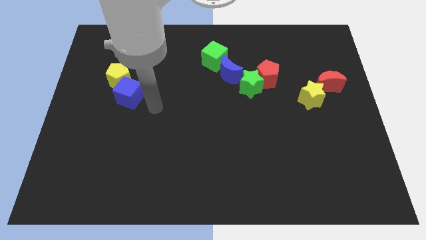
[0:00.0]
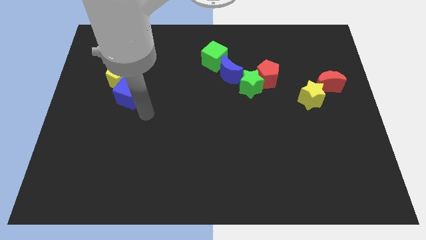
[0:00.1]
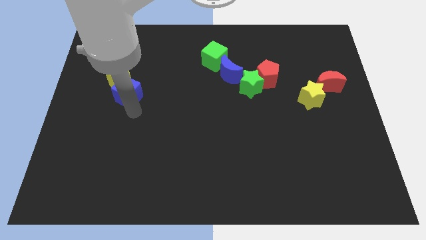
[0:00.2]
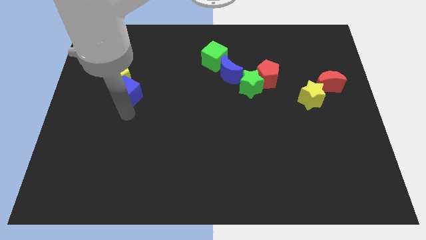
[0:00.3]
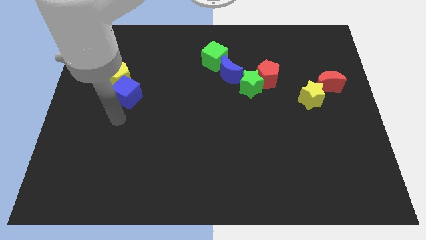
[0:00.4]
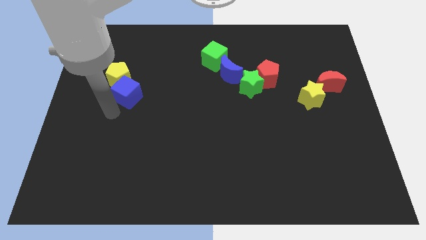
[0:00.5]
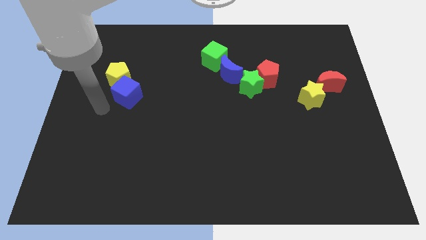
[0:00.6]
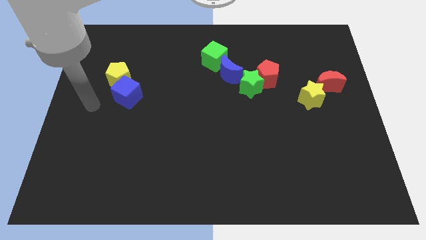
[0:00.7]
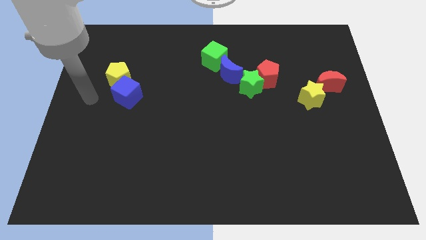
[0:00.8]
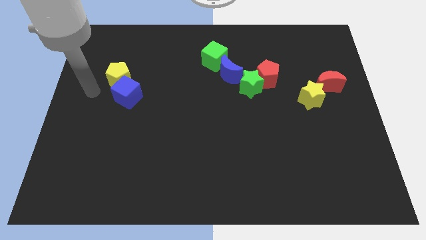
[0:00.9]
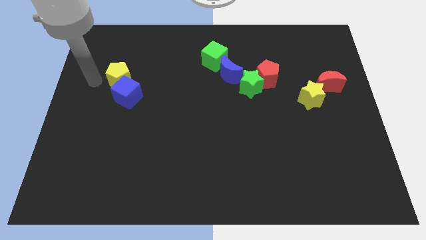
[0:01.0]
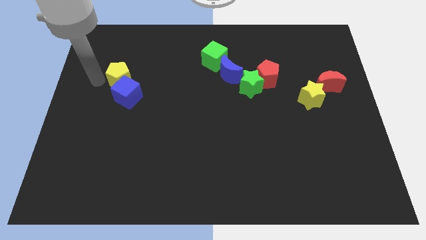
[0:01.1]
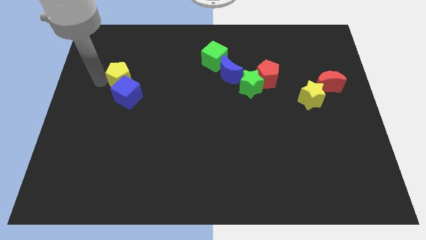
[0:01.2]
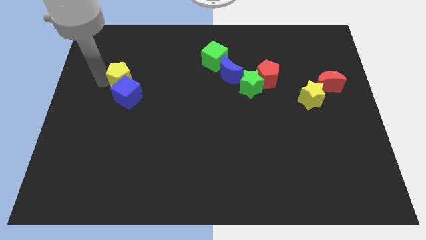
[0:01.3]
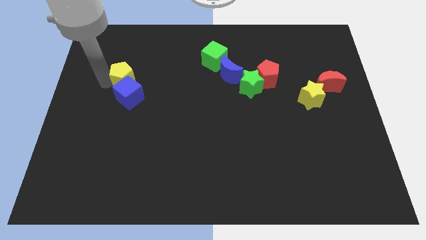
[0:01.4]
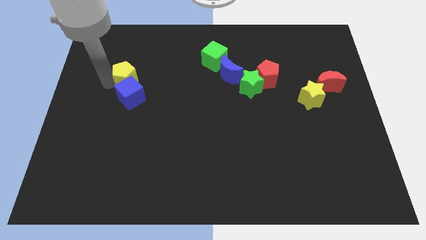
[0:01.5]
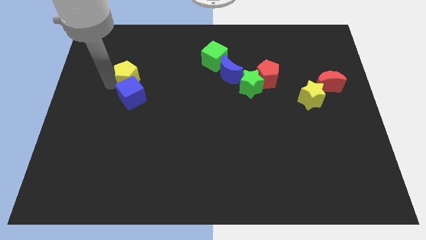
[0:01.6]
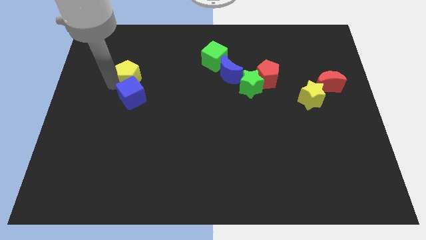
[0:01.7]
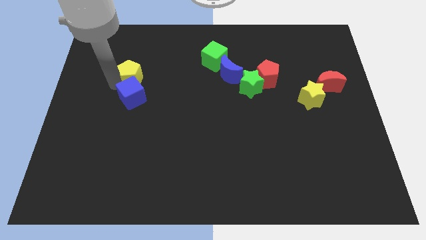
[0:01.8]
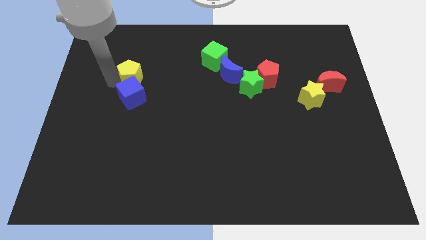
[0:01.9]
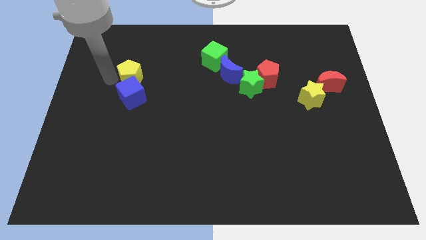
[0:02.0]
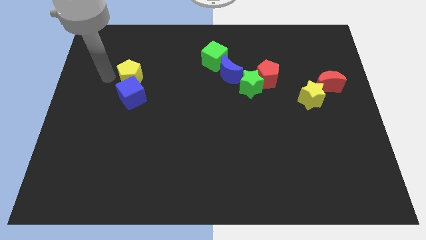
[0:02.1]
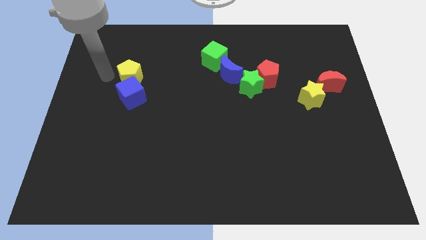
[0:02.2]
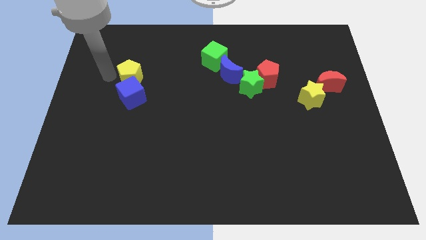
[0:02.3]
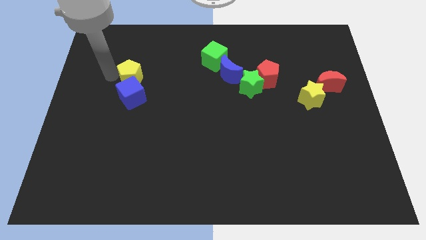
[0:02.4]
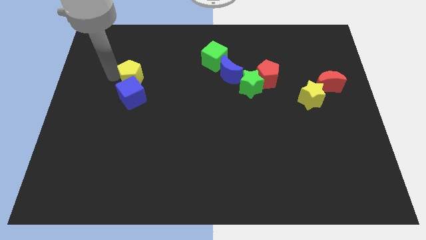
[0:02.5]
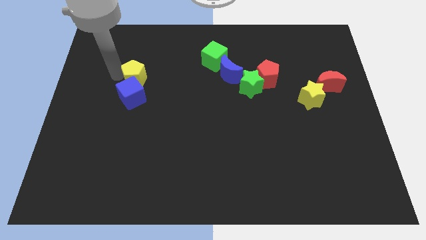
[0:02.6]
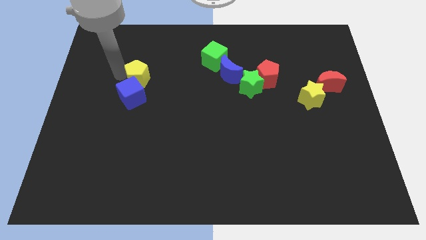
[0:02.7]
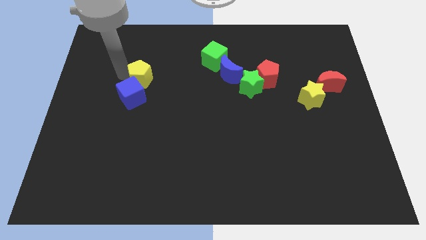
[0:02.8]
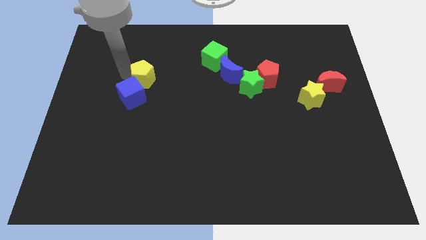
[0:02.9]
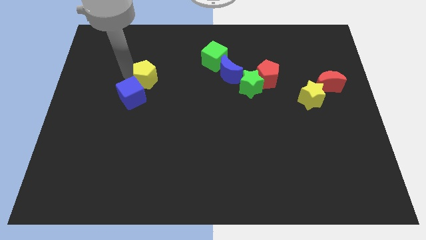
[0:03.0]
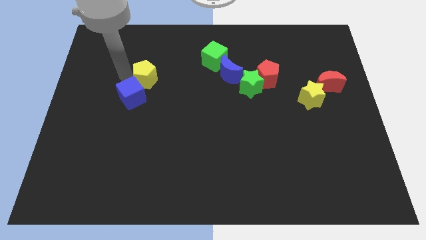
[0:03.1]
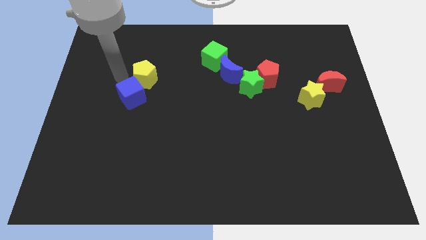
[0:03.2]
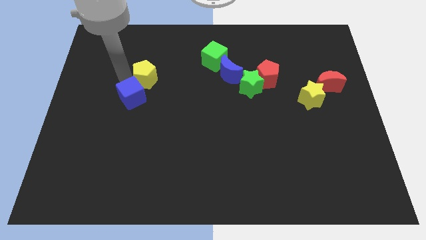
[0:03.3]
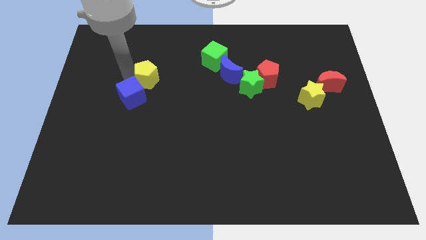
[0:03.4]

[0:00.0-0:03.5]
move the yellow pentagon slightly to the right

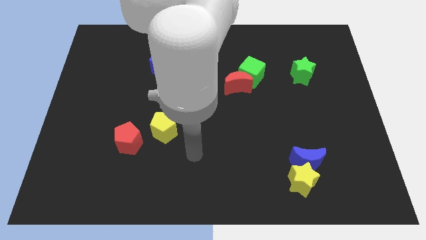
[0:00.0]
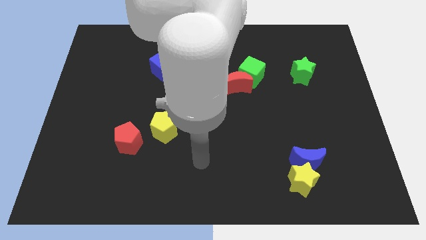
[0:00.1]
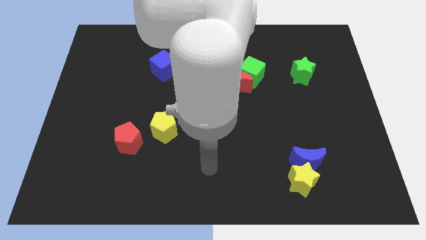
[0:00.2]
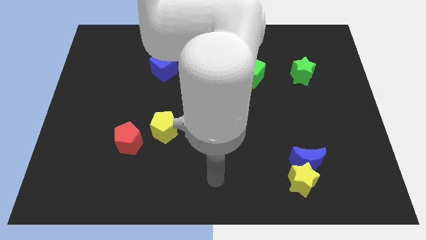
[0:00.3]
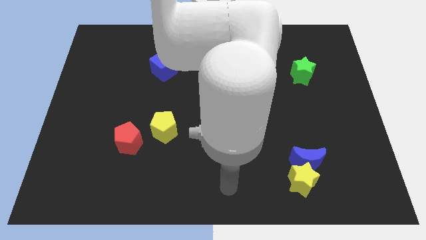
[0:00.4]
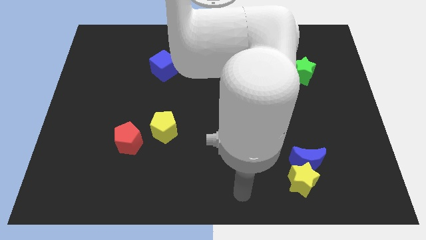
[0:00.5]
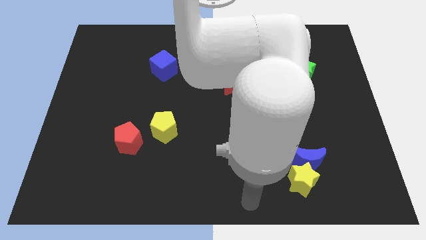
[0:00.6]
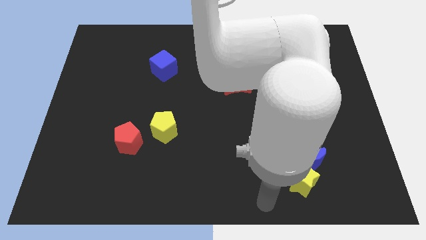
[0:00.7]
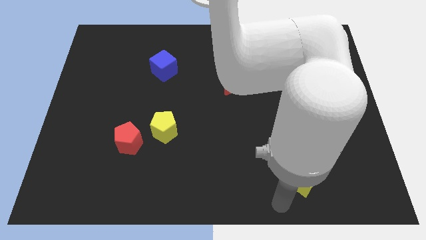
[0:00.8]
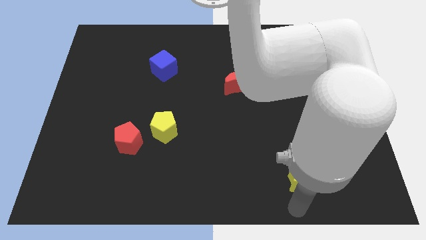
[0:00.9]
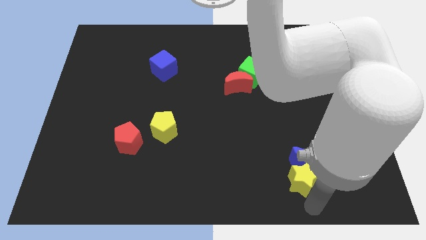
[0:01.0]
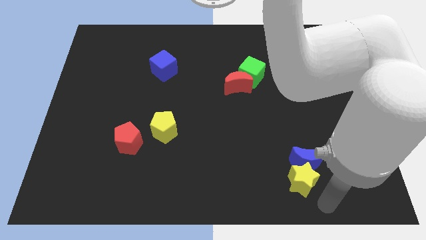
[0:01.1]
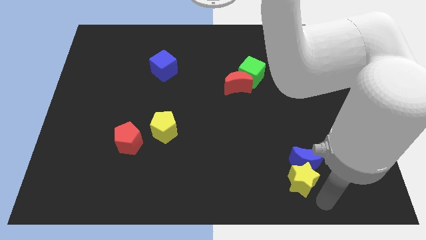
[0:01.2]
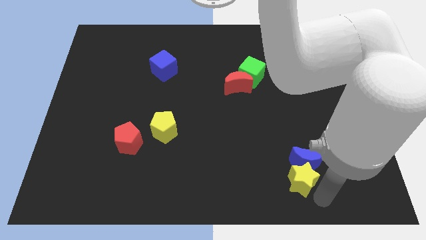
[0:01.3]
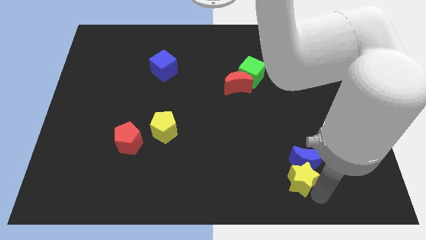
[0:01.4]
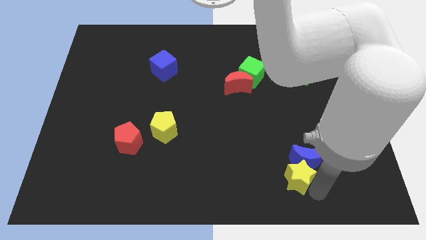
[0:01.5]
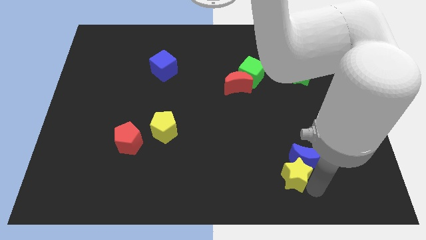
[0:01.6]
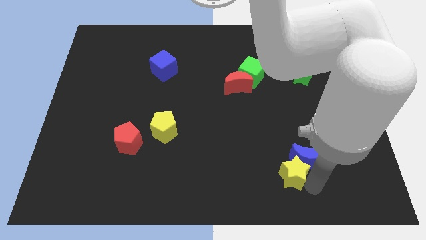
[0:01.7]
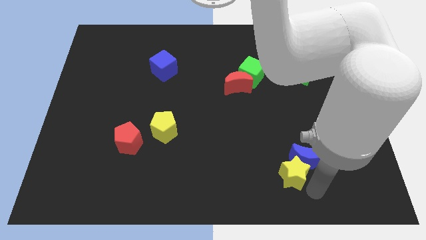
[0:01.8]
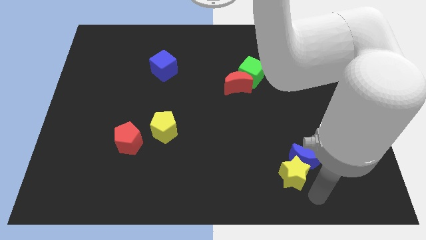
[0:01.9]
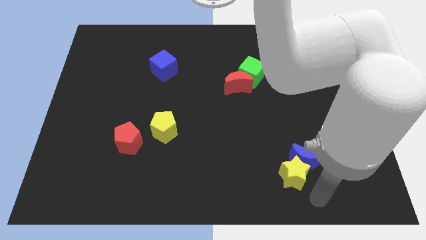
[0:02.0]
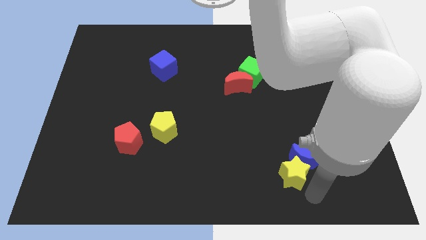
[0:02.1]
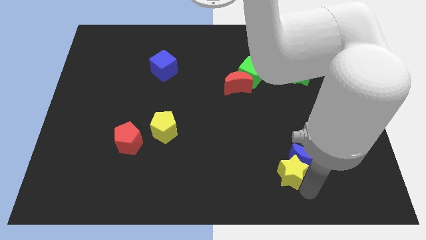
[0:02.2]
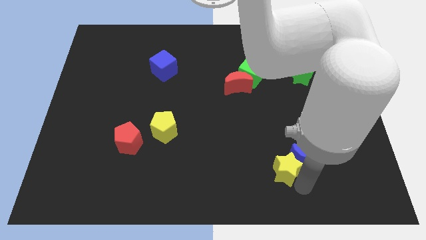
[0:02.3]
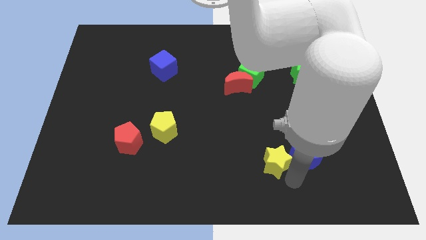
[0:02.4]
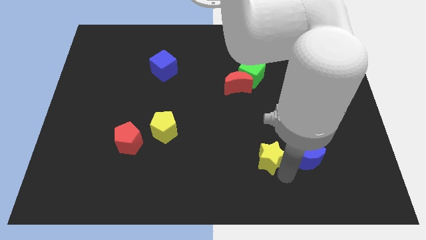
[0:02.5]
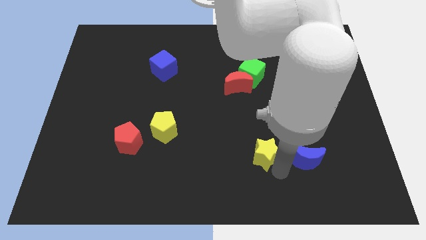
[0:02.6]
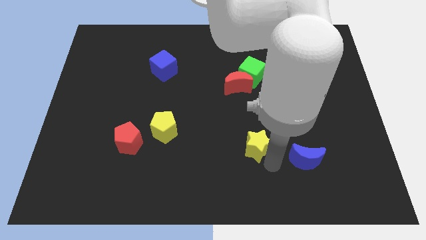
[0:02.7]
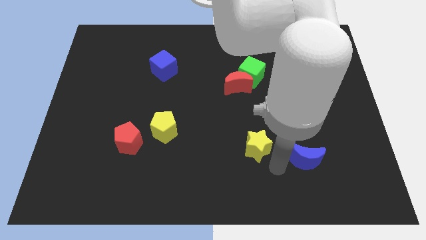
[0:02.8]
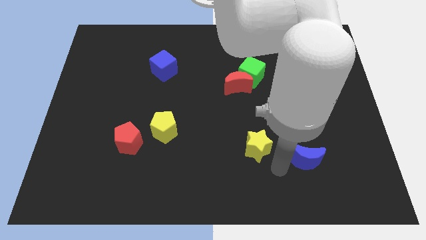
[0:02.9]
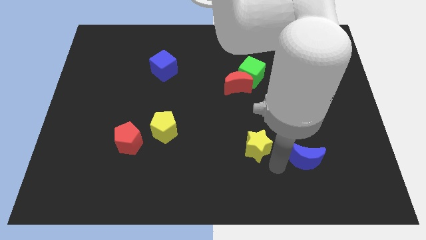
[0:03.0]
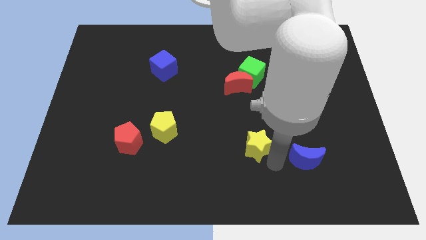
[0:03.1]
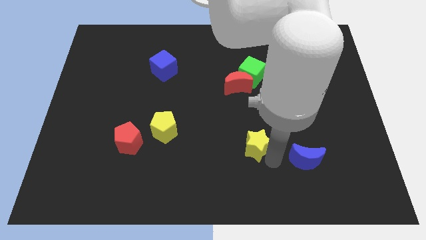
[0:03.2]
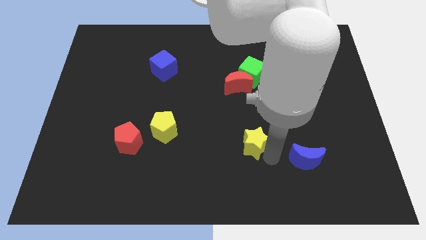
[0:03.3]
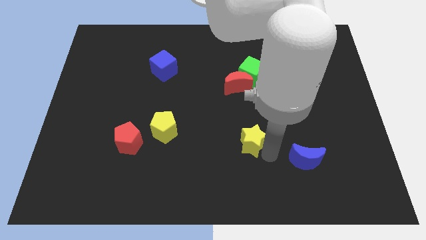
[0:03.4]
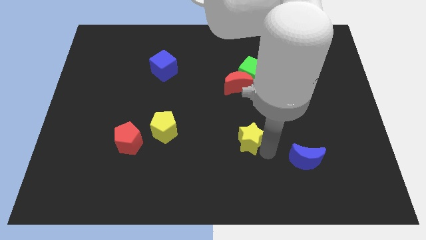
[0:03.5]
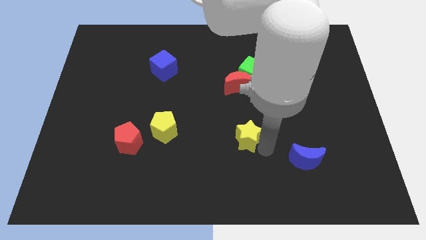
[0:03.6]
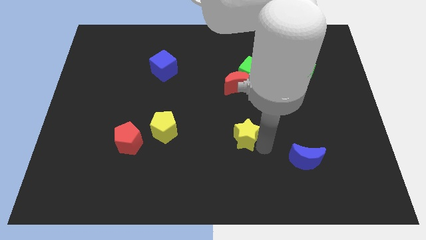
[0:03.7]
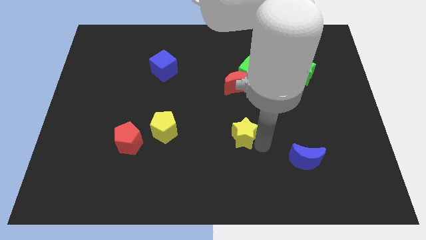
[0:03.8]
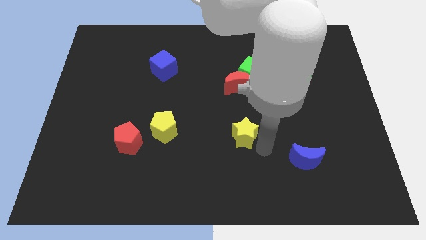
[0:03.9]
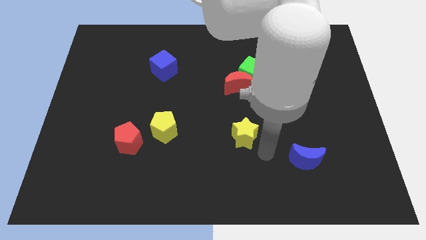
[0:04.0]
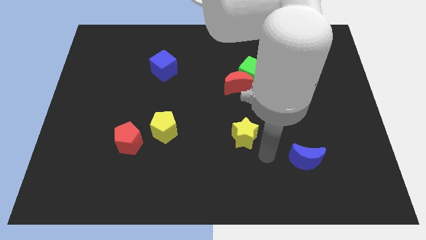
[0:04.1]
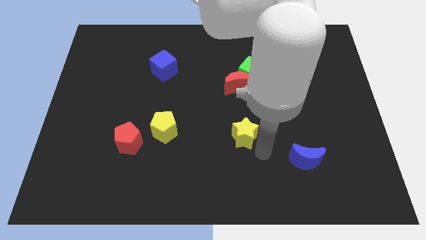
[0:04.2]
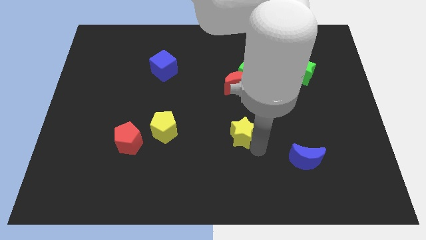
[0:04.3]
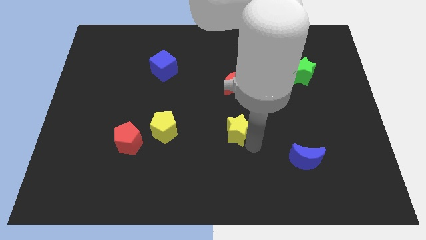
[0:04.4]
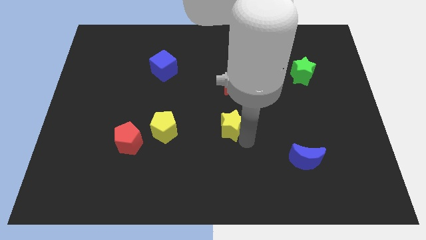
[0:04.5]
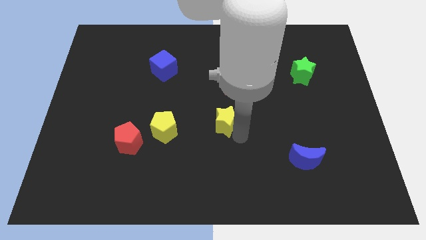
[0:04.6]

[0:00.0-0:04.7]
slide the yellow star upwards and left
